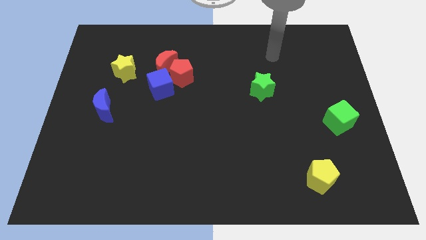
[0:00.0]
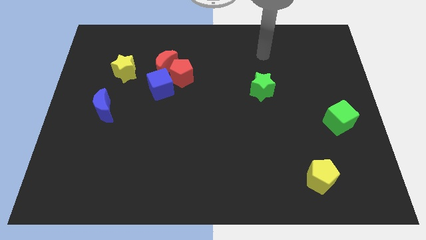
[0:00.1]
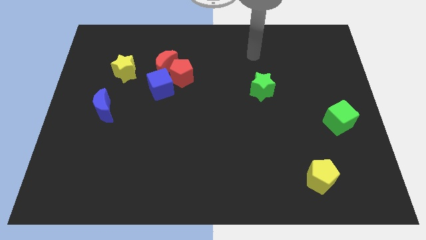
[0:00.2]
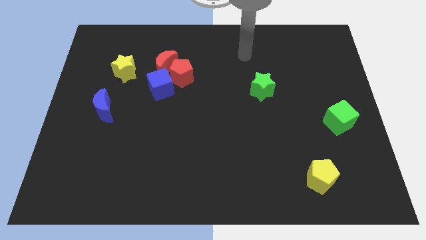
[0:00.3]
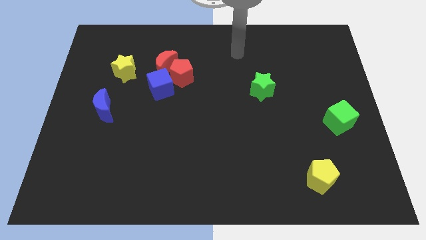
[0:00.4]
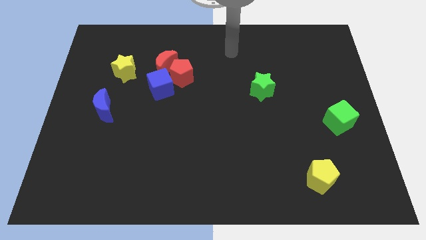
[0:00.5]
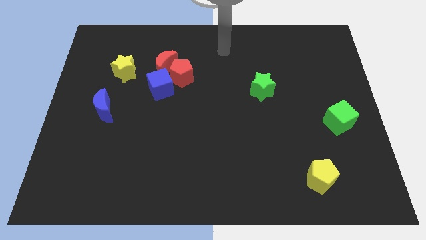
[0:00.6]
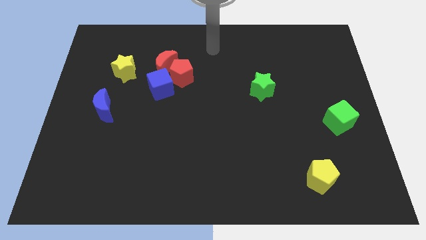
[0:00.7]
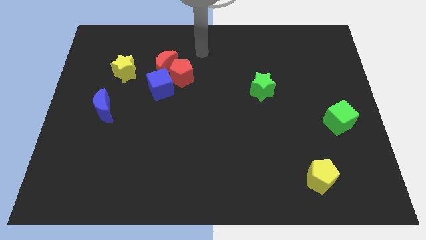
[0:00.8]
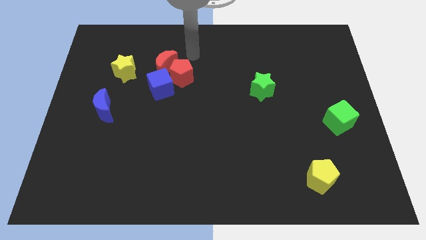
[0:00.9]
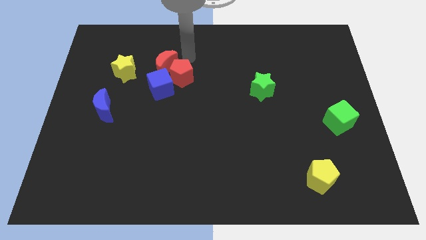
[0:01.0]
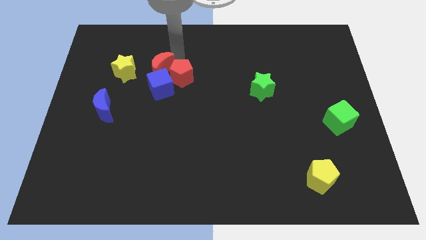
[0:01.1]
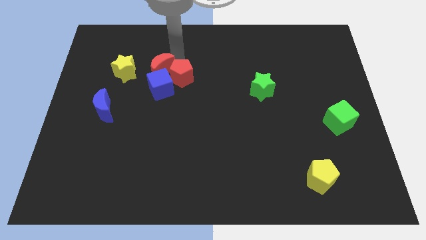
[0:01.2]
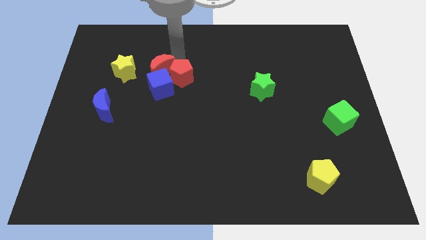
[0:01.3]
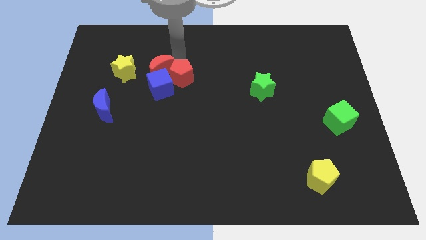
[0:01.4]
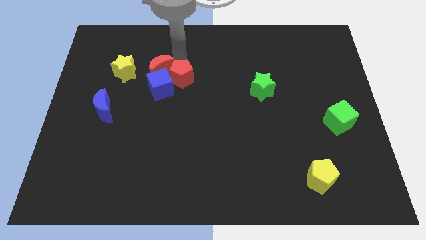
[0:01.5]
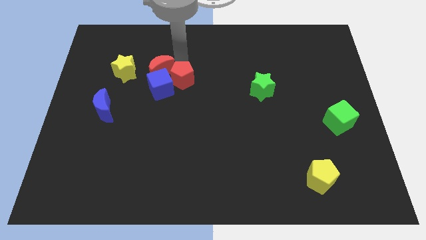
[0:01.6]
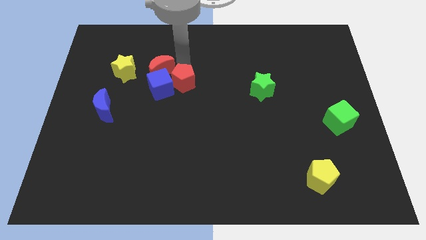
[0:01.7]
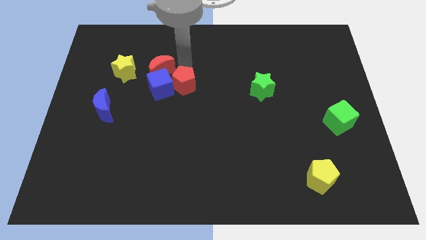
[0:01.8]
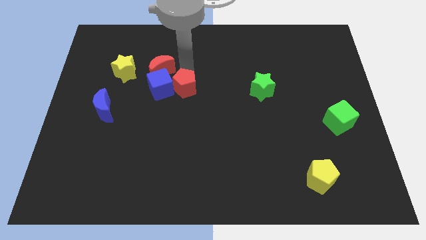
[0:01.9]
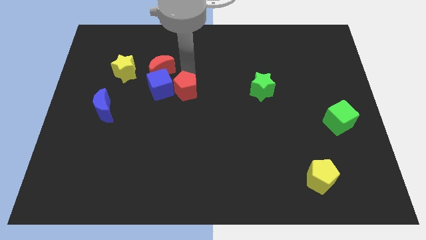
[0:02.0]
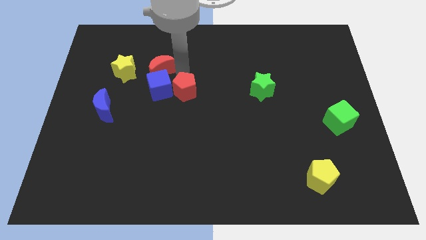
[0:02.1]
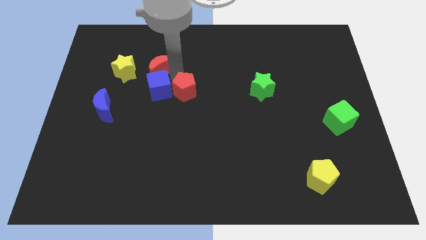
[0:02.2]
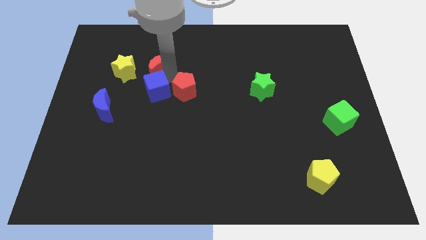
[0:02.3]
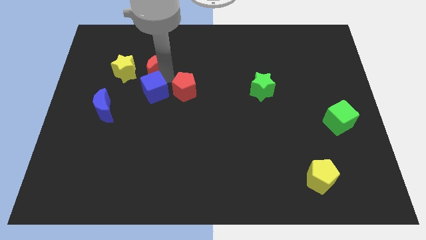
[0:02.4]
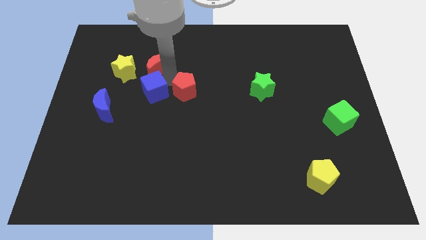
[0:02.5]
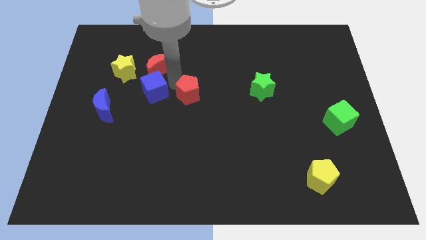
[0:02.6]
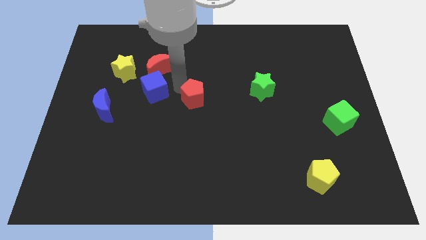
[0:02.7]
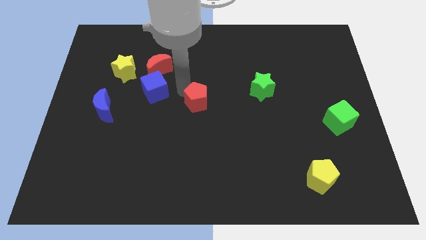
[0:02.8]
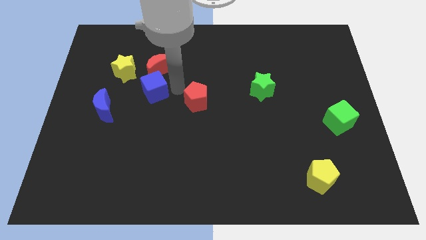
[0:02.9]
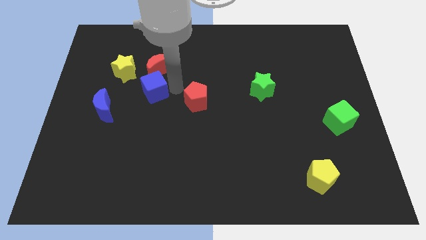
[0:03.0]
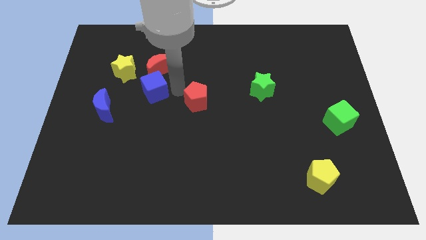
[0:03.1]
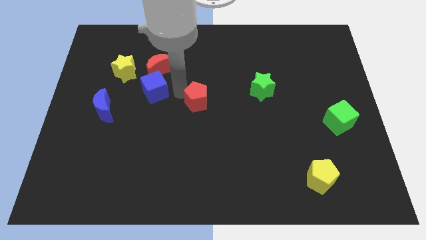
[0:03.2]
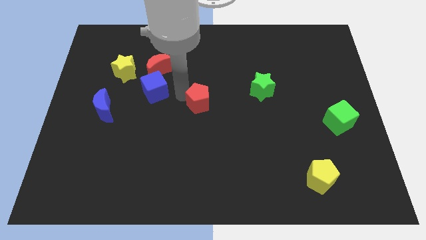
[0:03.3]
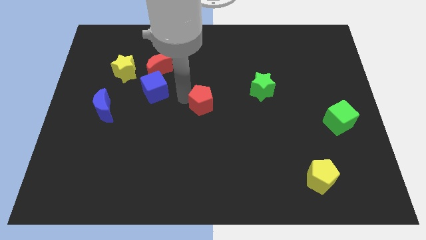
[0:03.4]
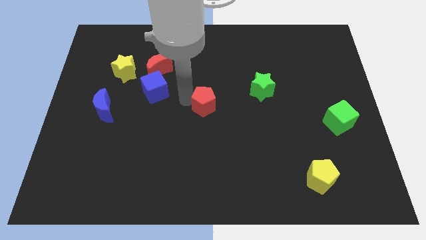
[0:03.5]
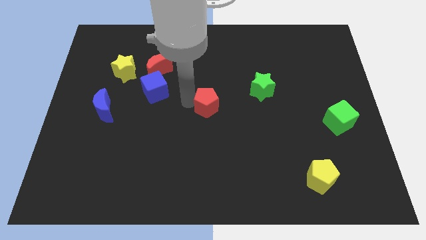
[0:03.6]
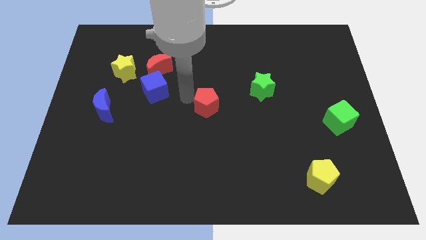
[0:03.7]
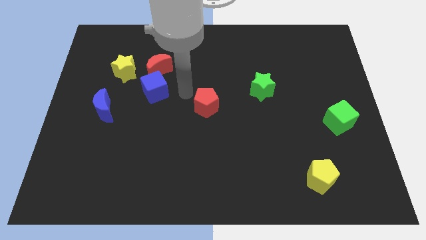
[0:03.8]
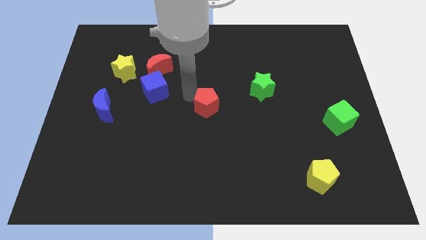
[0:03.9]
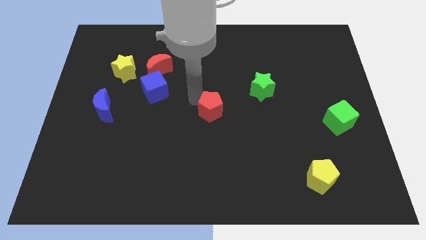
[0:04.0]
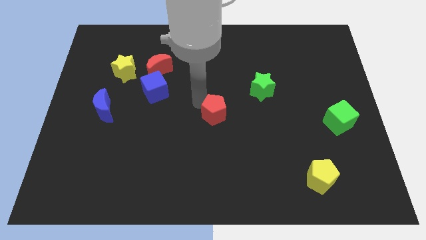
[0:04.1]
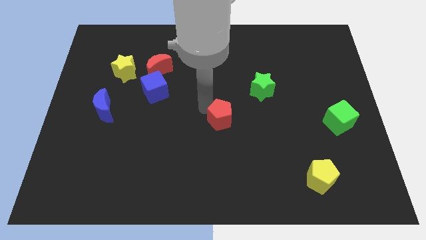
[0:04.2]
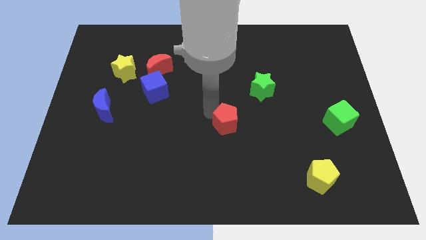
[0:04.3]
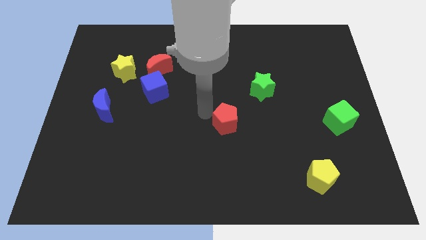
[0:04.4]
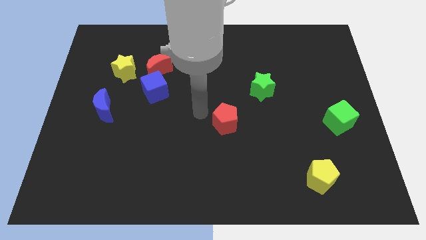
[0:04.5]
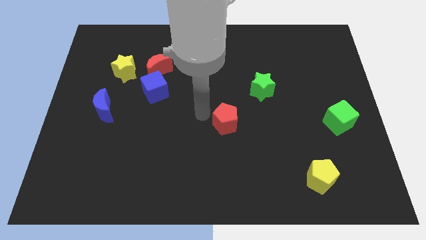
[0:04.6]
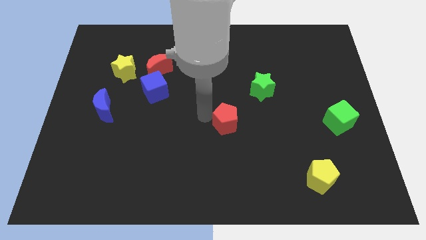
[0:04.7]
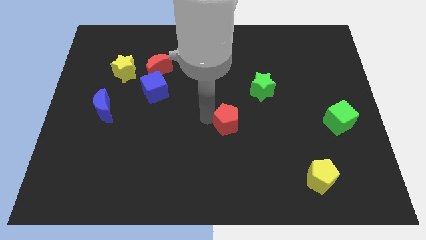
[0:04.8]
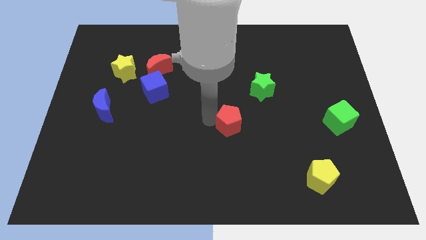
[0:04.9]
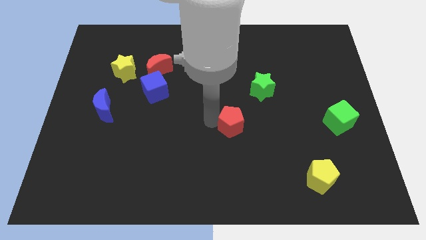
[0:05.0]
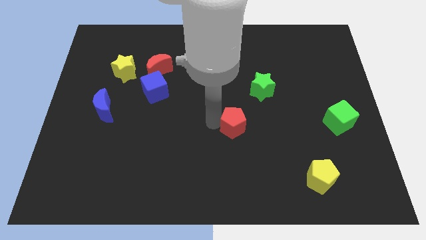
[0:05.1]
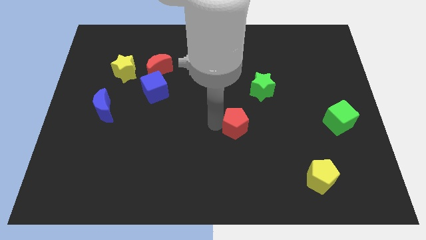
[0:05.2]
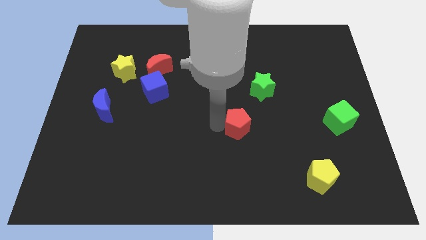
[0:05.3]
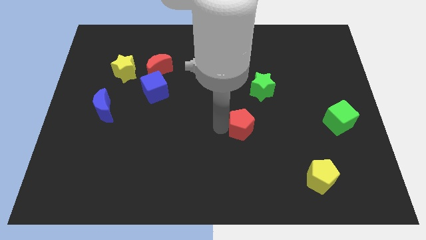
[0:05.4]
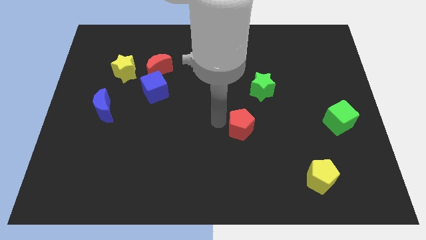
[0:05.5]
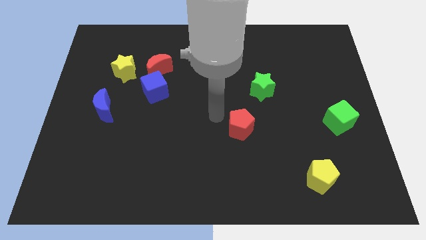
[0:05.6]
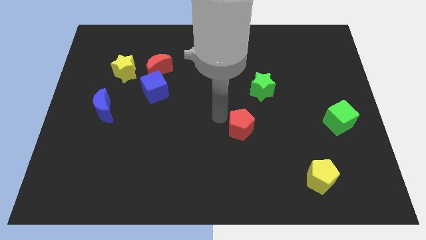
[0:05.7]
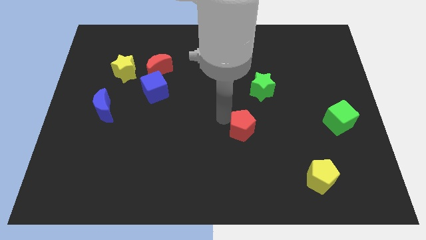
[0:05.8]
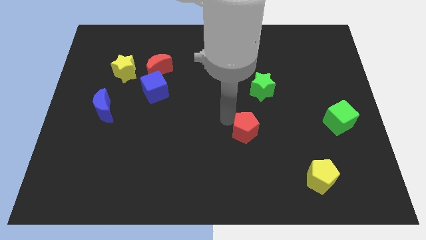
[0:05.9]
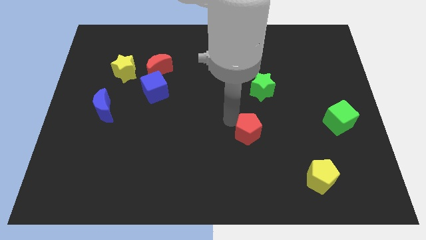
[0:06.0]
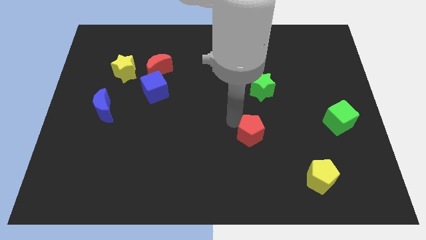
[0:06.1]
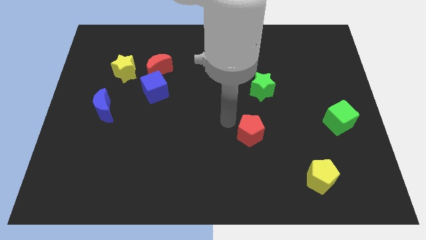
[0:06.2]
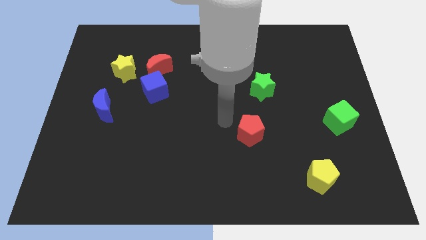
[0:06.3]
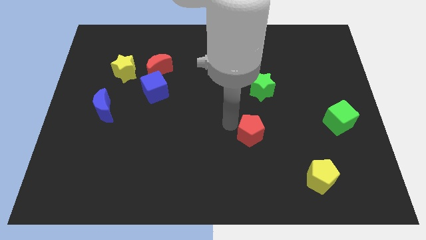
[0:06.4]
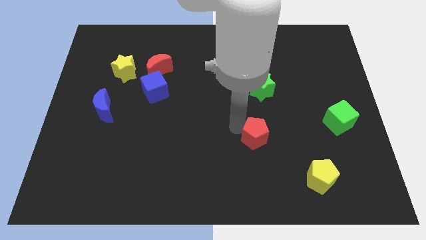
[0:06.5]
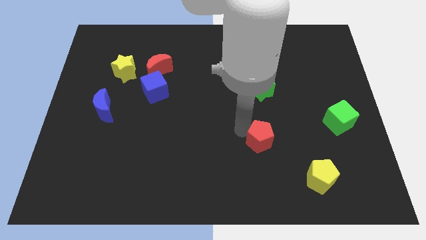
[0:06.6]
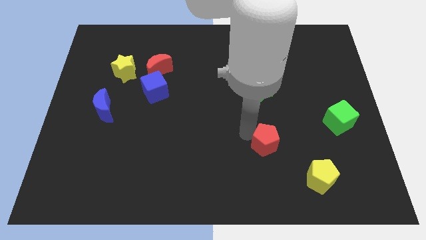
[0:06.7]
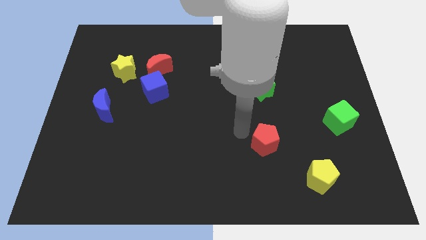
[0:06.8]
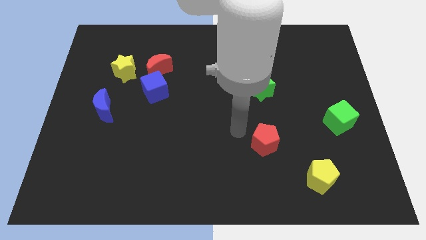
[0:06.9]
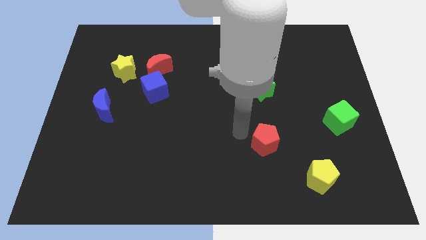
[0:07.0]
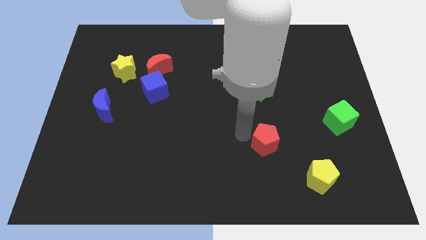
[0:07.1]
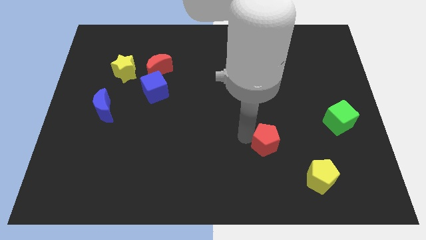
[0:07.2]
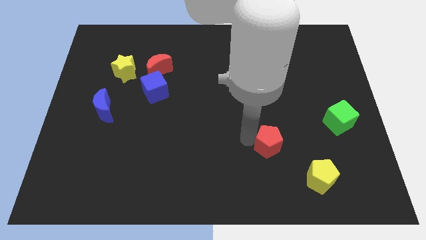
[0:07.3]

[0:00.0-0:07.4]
slide the red pentagon to the top left side of the yellow pentagon
